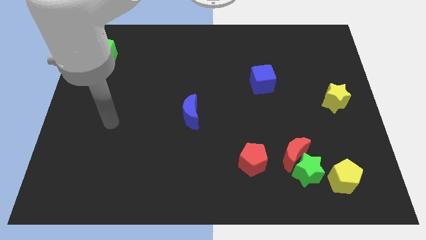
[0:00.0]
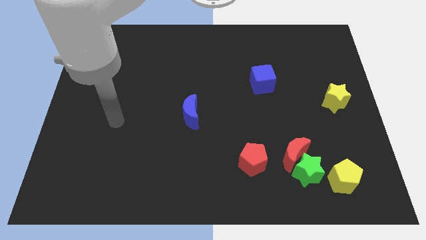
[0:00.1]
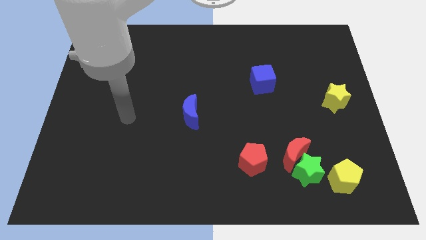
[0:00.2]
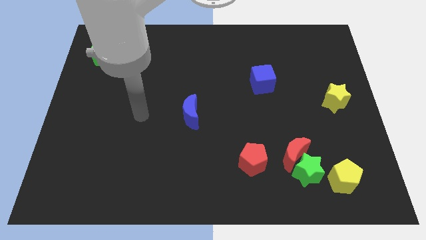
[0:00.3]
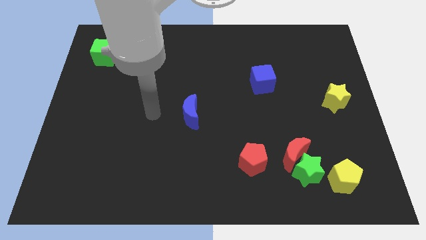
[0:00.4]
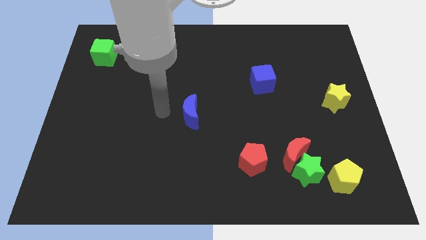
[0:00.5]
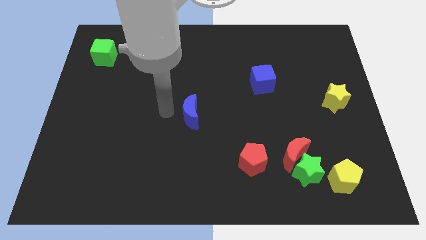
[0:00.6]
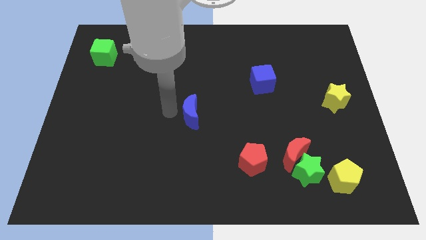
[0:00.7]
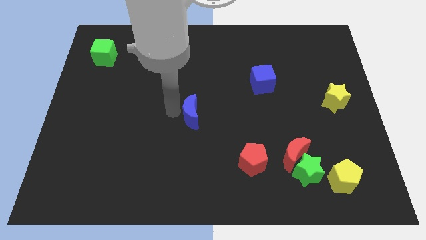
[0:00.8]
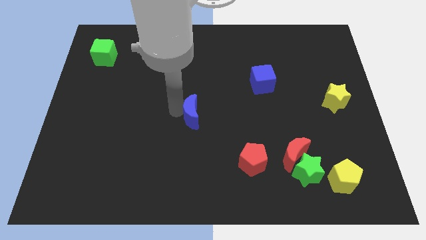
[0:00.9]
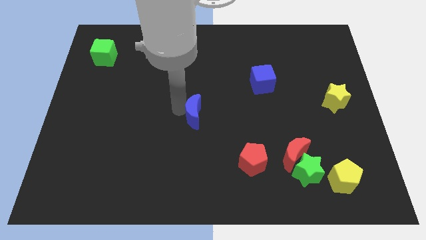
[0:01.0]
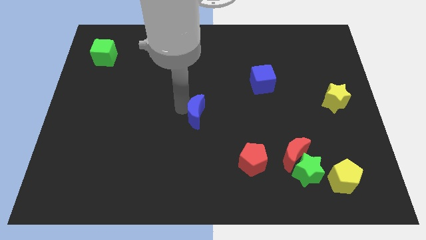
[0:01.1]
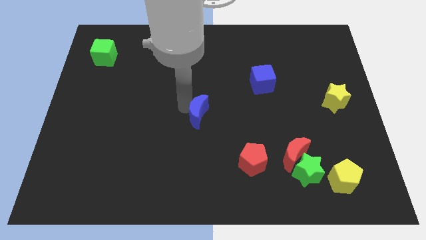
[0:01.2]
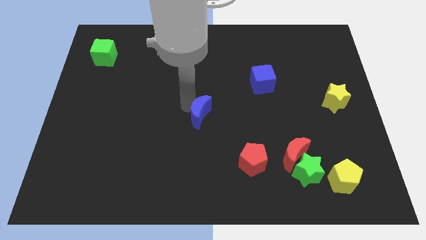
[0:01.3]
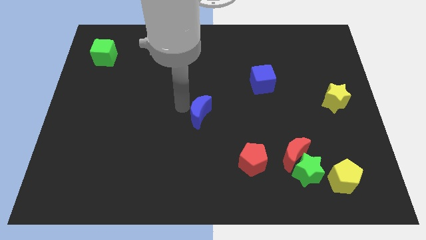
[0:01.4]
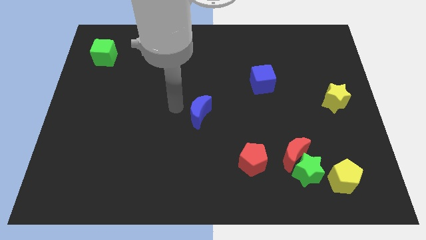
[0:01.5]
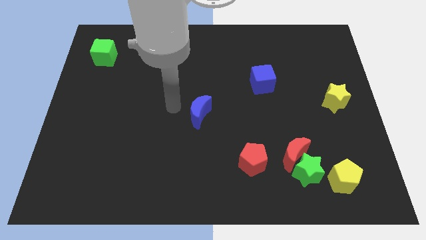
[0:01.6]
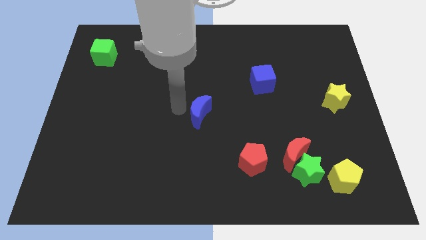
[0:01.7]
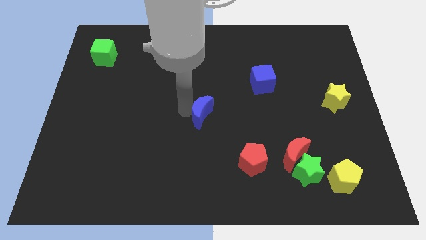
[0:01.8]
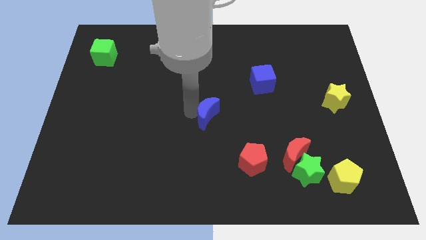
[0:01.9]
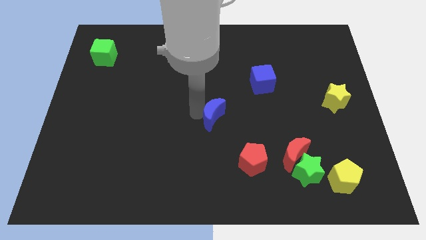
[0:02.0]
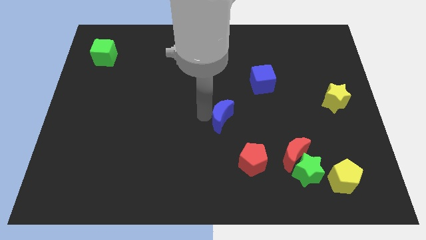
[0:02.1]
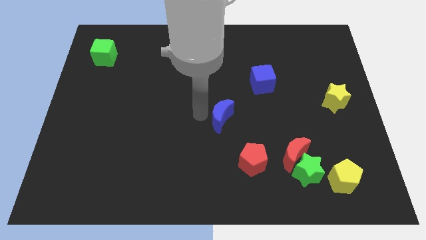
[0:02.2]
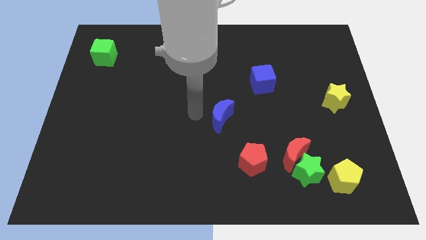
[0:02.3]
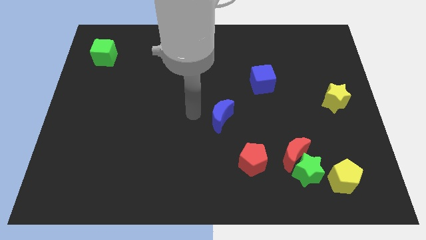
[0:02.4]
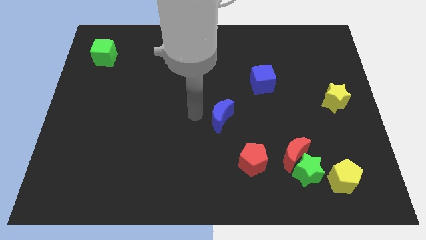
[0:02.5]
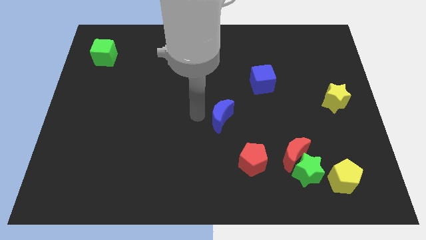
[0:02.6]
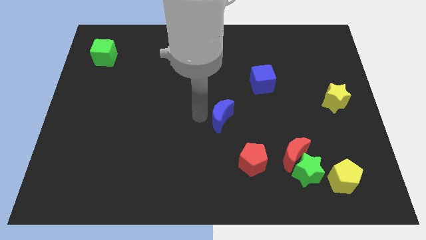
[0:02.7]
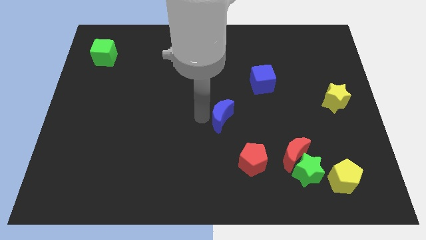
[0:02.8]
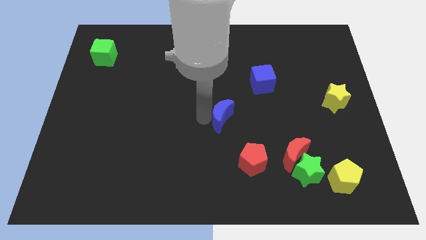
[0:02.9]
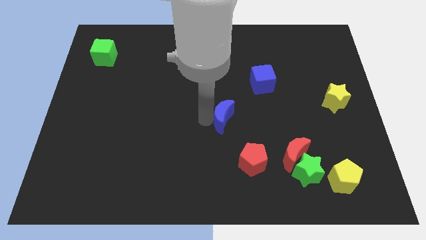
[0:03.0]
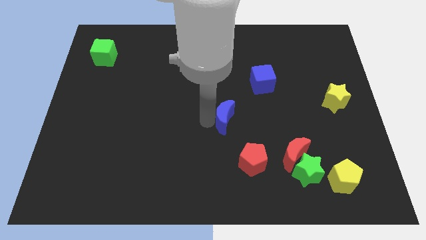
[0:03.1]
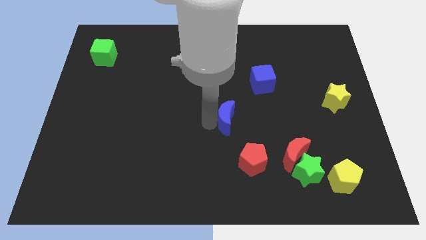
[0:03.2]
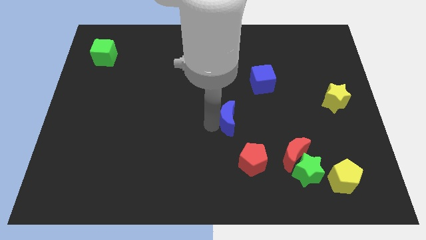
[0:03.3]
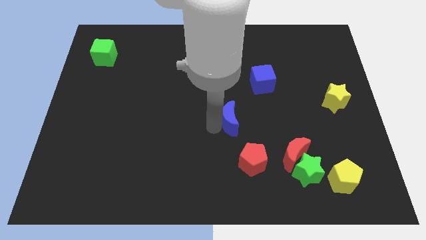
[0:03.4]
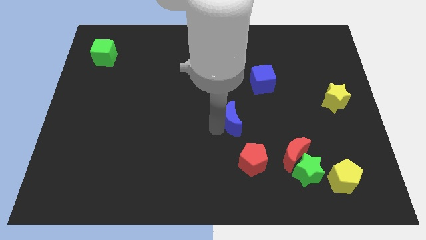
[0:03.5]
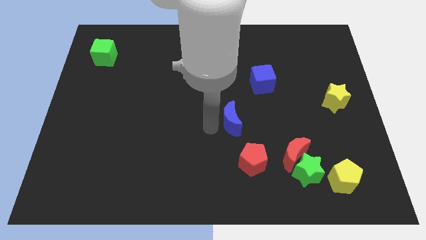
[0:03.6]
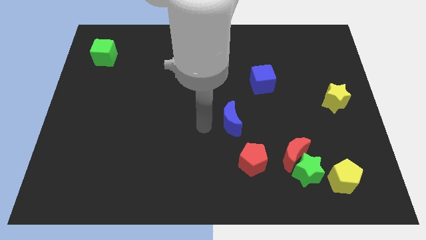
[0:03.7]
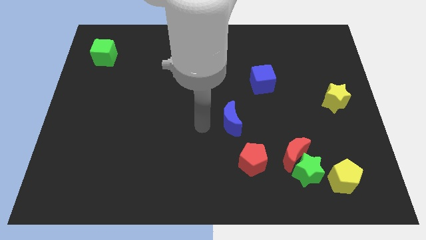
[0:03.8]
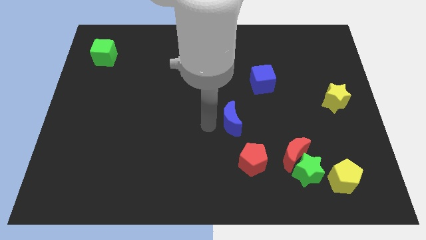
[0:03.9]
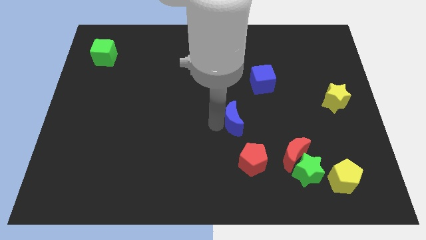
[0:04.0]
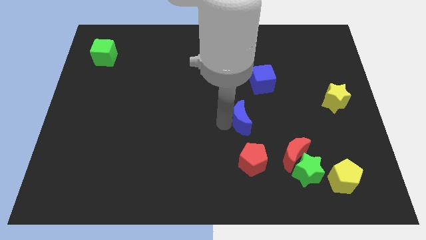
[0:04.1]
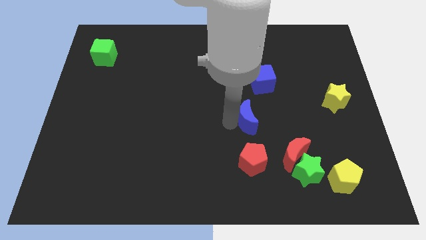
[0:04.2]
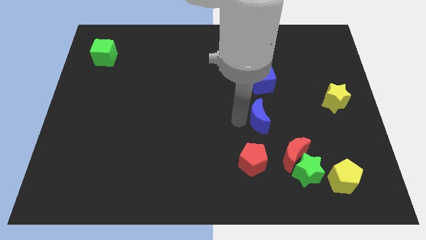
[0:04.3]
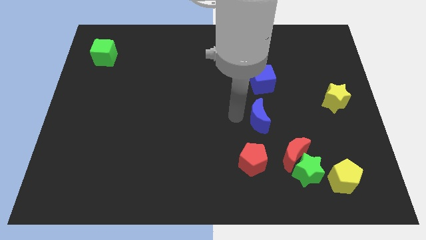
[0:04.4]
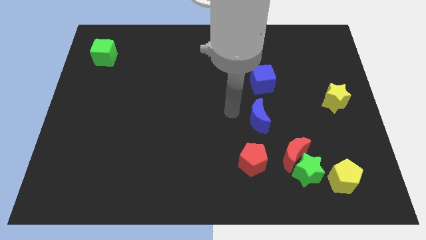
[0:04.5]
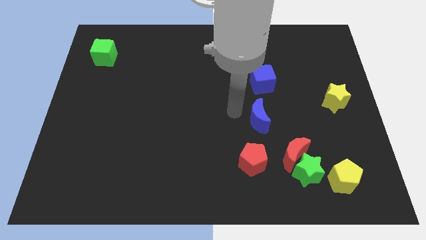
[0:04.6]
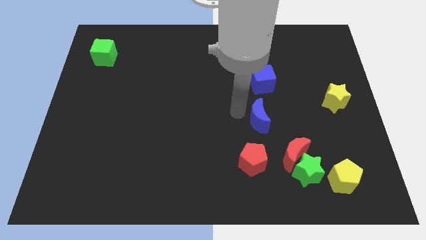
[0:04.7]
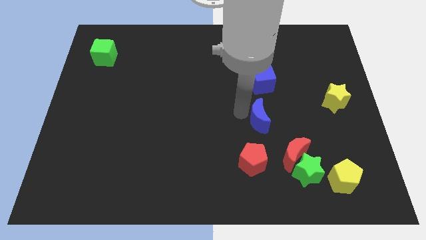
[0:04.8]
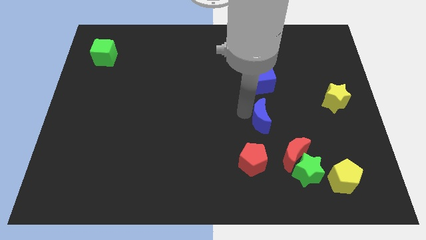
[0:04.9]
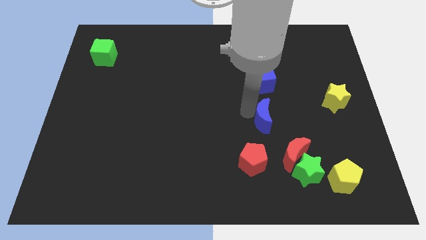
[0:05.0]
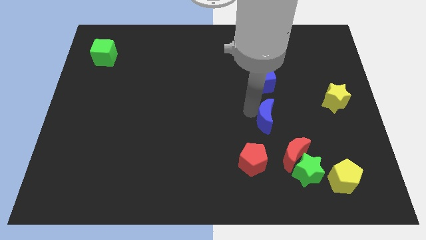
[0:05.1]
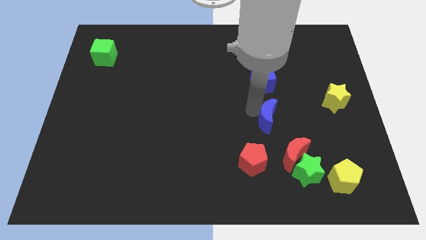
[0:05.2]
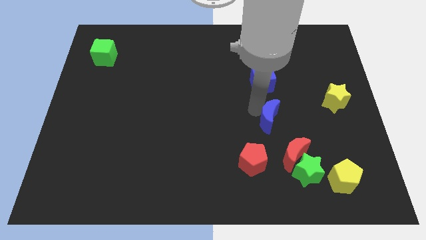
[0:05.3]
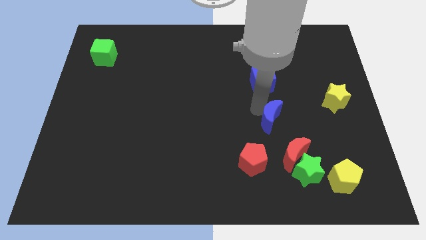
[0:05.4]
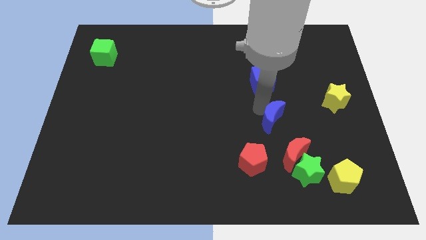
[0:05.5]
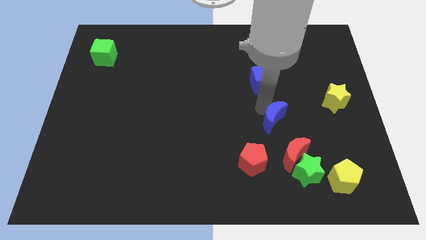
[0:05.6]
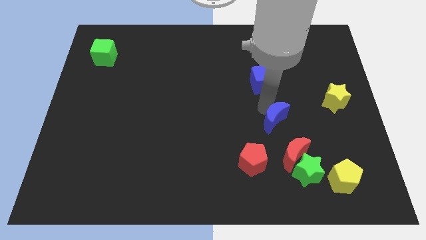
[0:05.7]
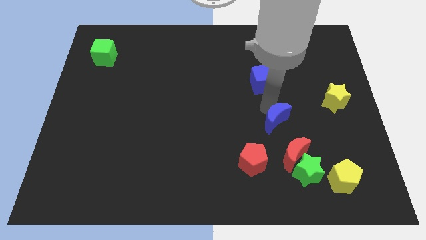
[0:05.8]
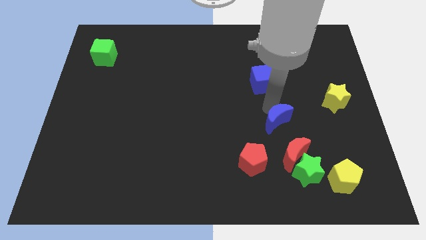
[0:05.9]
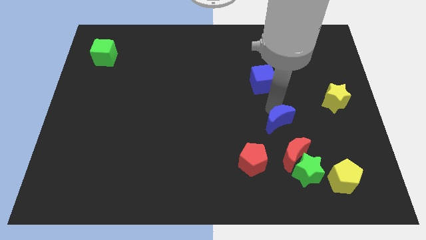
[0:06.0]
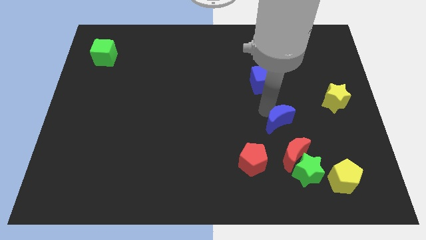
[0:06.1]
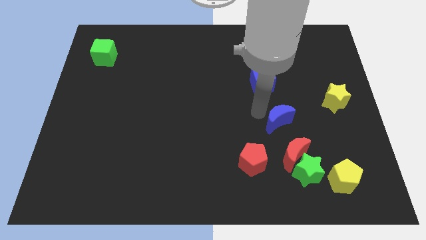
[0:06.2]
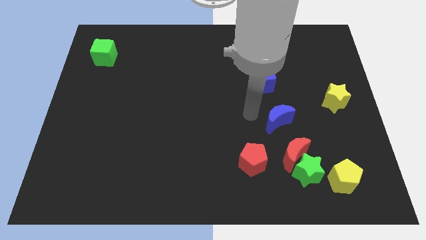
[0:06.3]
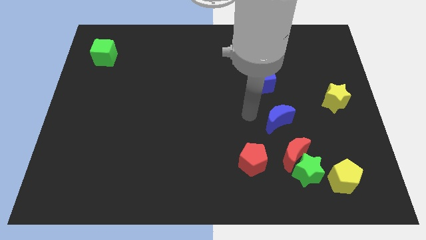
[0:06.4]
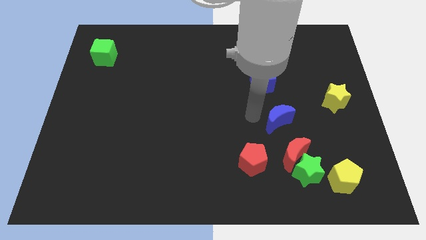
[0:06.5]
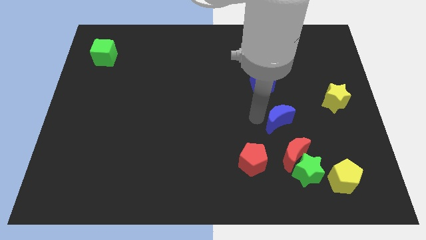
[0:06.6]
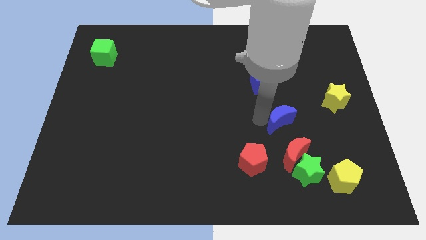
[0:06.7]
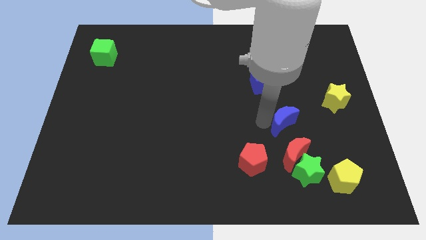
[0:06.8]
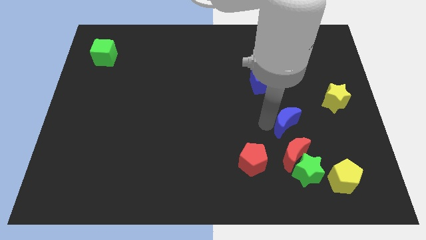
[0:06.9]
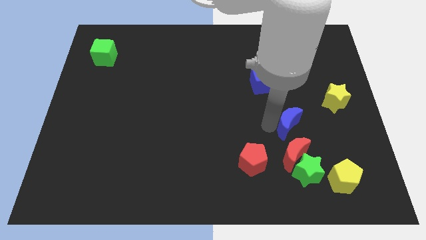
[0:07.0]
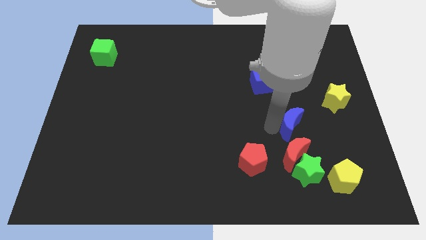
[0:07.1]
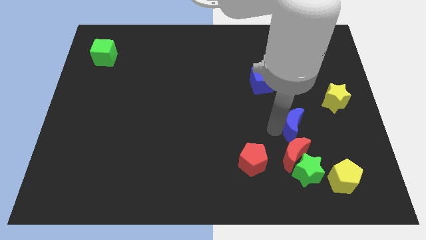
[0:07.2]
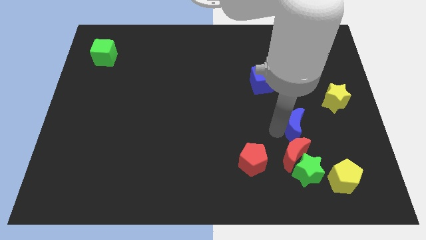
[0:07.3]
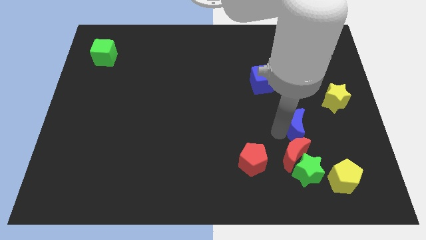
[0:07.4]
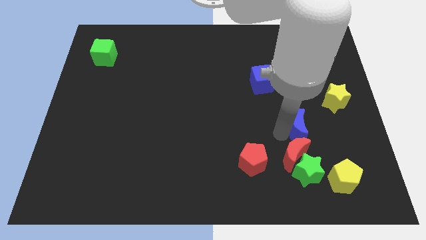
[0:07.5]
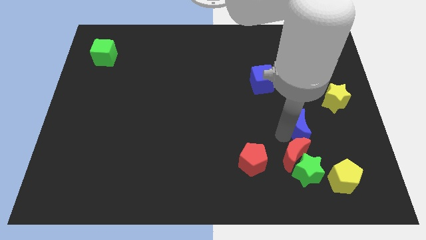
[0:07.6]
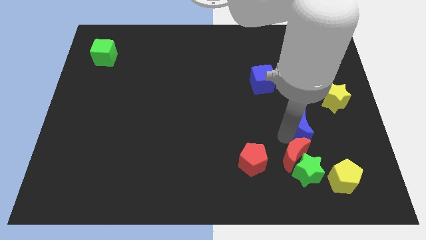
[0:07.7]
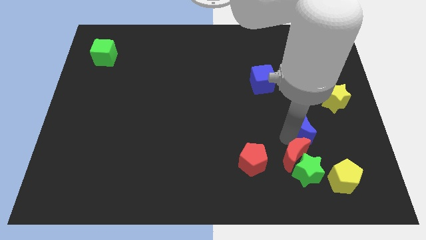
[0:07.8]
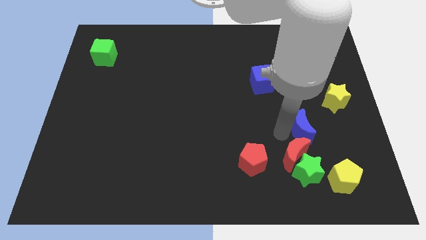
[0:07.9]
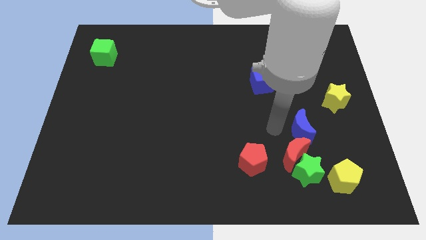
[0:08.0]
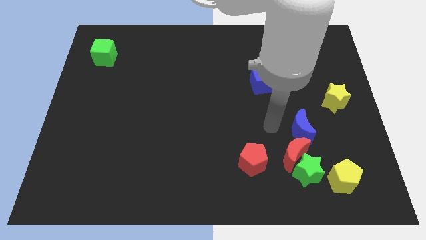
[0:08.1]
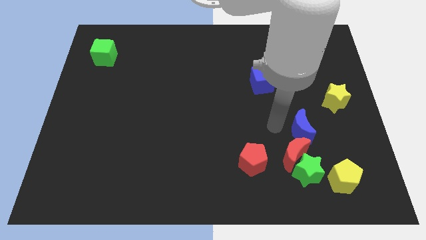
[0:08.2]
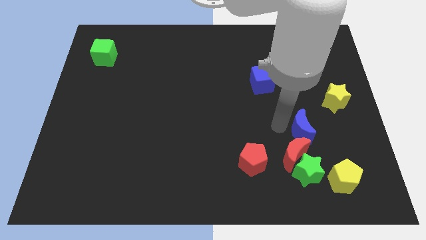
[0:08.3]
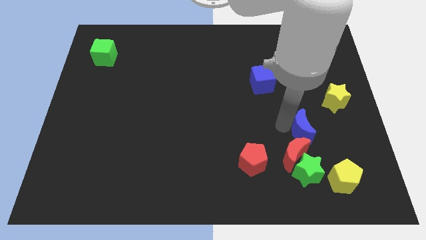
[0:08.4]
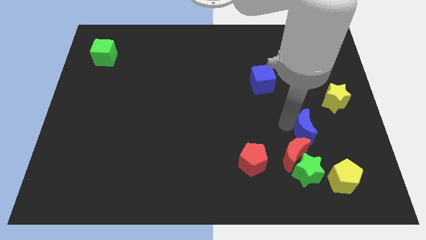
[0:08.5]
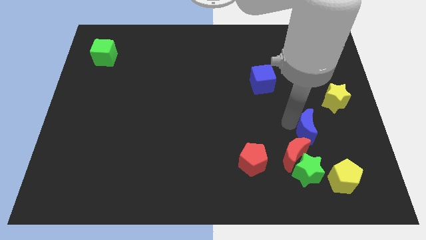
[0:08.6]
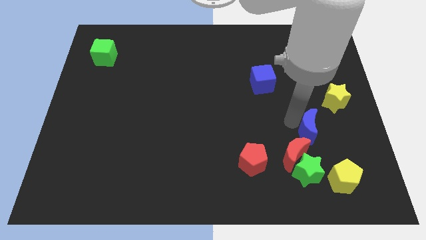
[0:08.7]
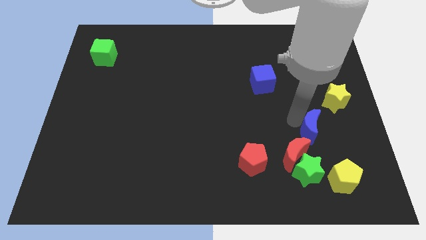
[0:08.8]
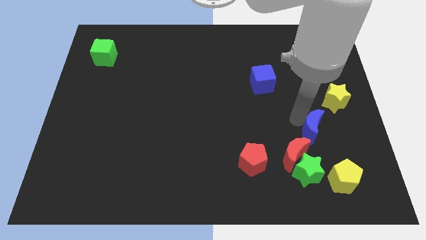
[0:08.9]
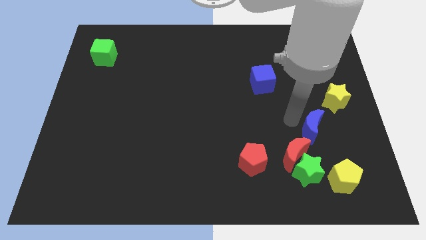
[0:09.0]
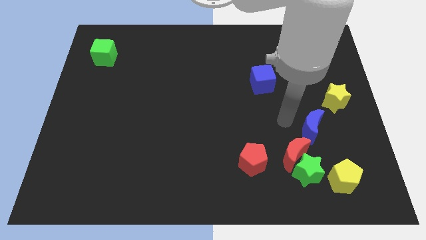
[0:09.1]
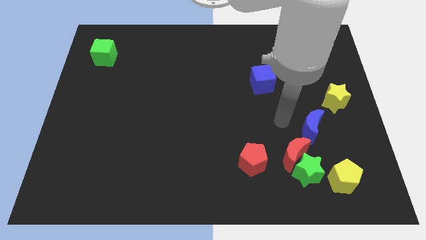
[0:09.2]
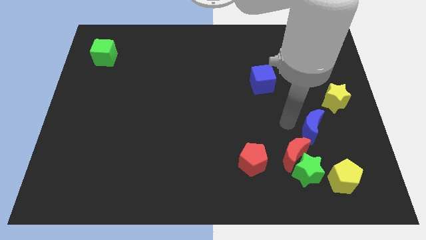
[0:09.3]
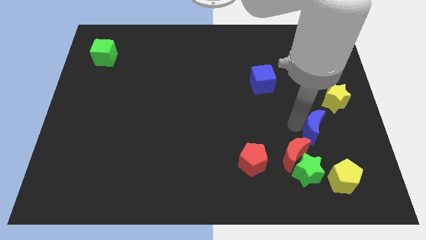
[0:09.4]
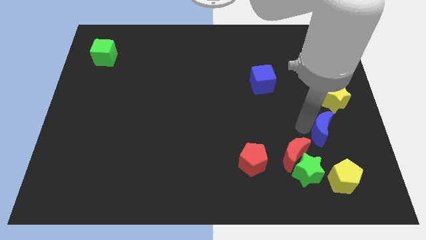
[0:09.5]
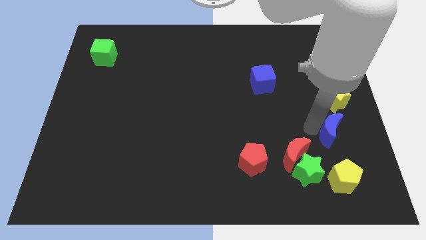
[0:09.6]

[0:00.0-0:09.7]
slide the blue moon to the bottom side of the yellow star
